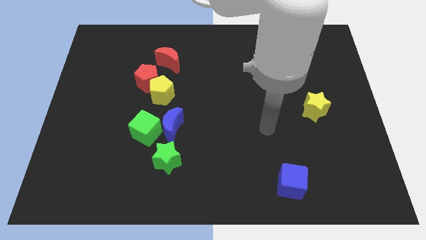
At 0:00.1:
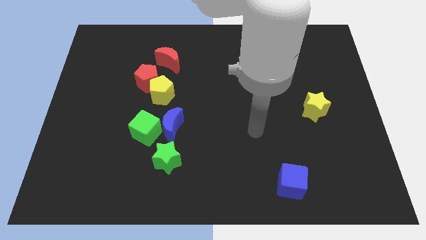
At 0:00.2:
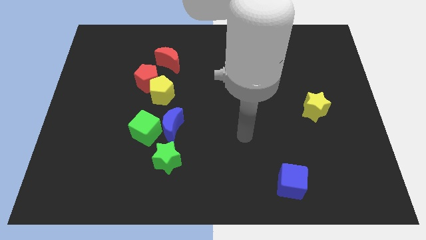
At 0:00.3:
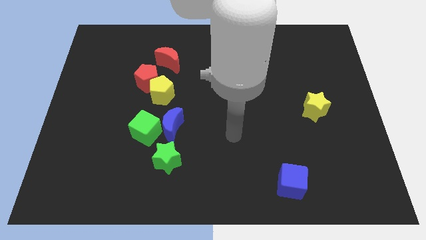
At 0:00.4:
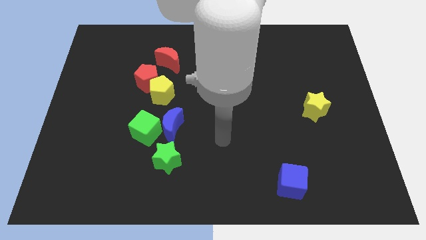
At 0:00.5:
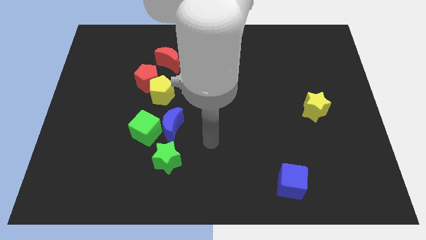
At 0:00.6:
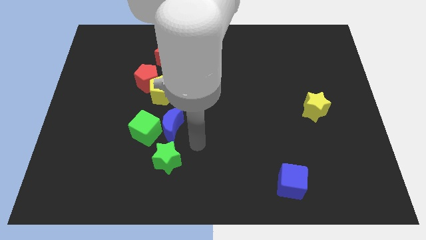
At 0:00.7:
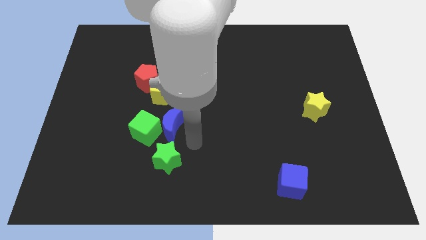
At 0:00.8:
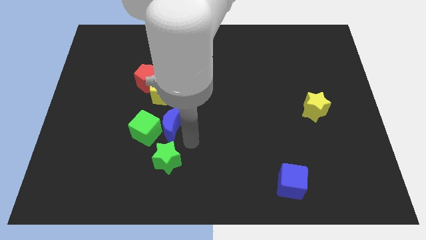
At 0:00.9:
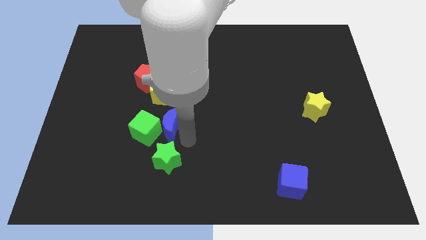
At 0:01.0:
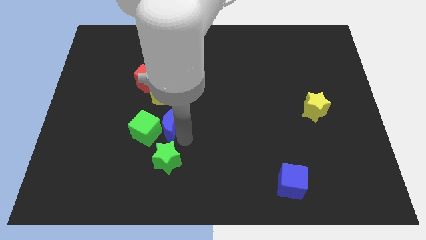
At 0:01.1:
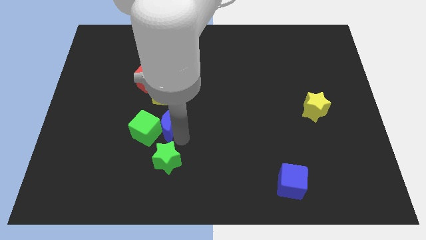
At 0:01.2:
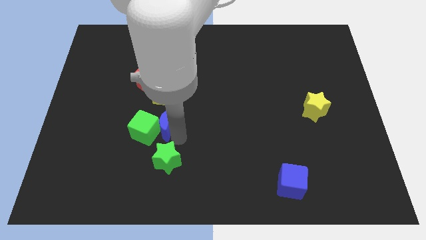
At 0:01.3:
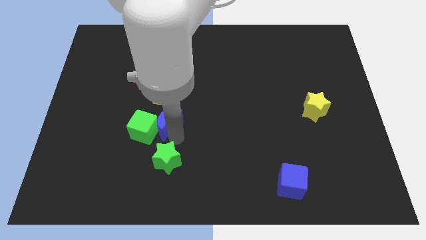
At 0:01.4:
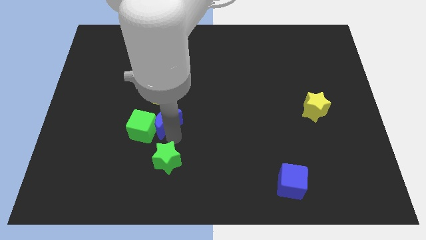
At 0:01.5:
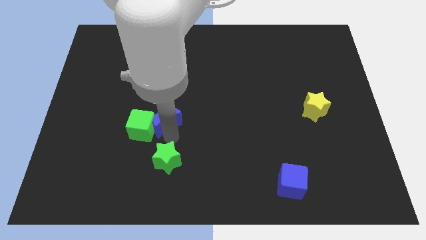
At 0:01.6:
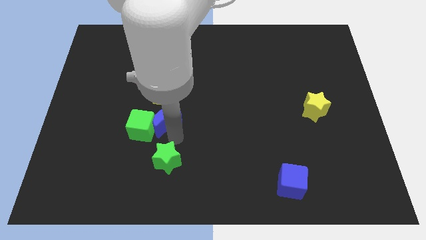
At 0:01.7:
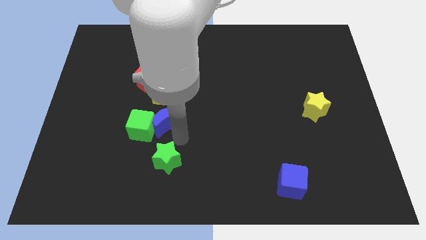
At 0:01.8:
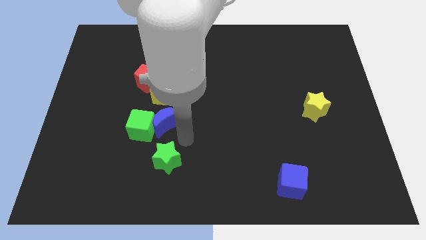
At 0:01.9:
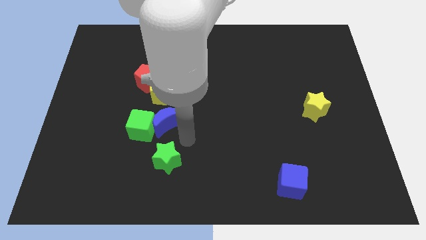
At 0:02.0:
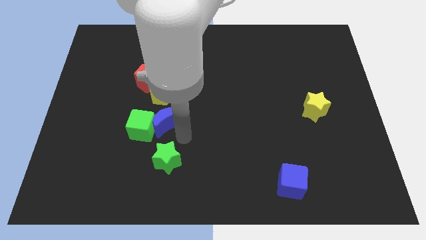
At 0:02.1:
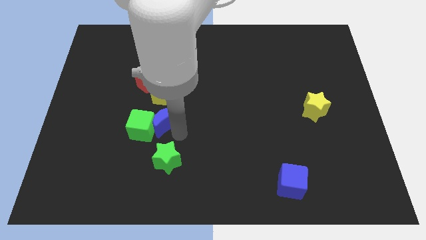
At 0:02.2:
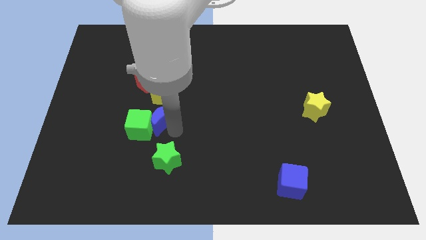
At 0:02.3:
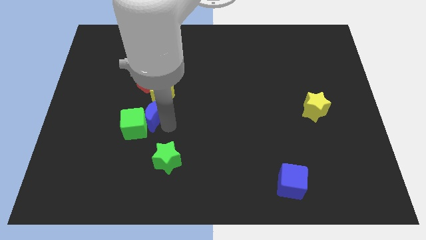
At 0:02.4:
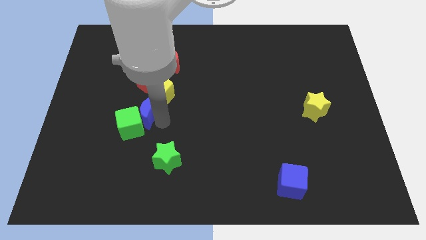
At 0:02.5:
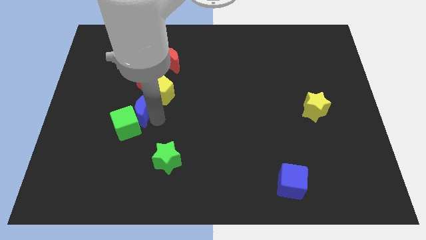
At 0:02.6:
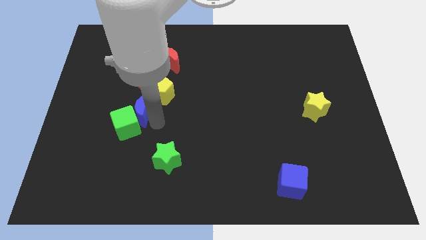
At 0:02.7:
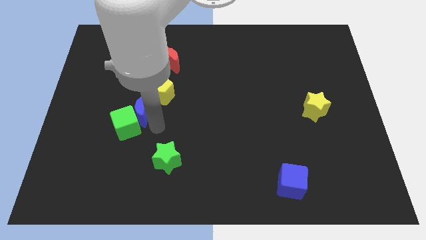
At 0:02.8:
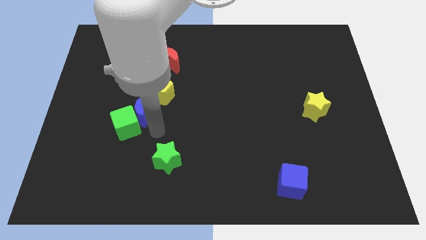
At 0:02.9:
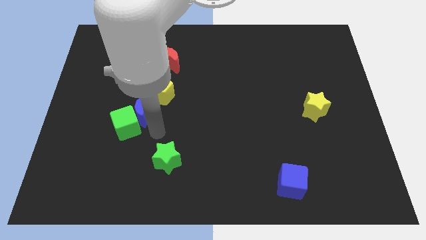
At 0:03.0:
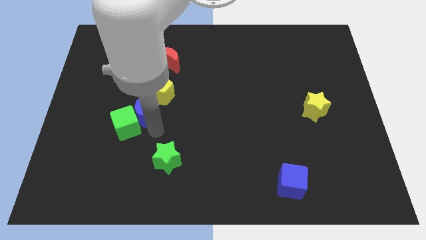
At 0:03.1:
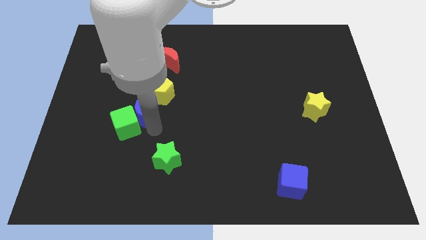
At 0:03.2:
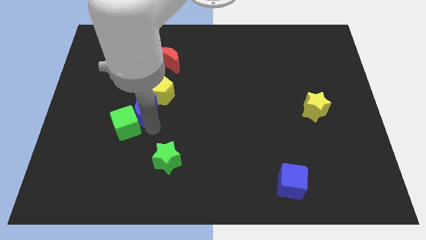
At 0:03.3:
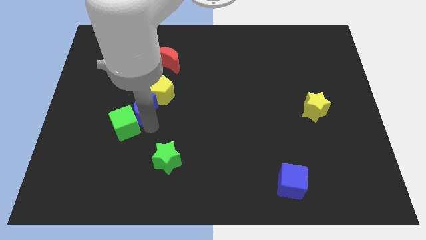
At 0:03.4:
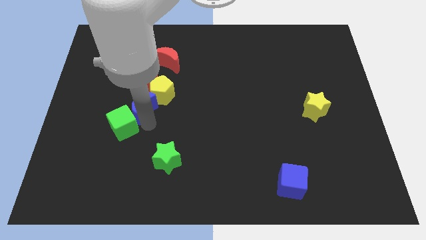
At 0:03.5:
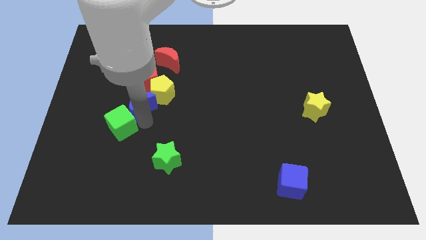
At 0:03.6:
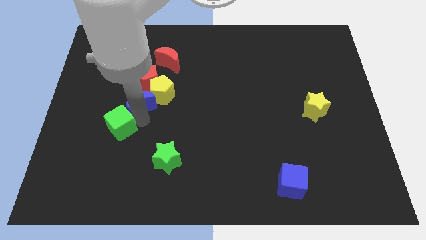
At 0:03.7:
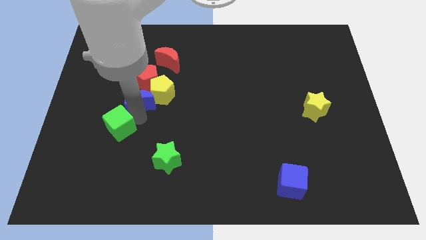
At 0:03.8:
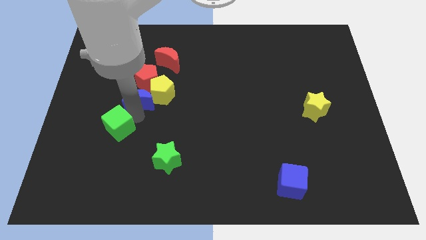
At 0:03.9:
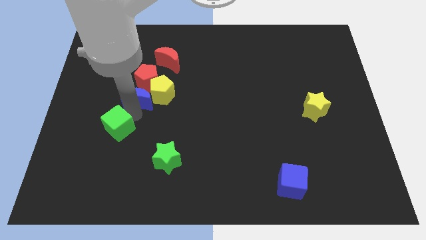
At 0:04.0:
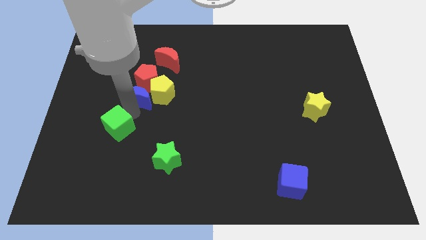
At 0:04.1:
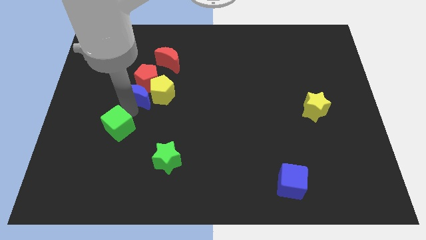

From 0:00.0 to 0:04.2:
push the blue moon towards the red pentagon

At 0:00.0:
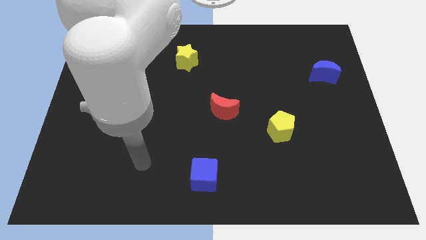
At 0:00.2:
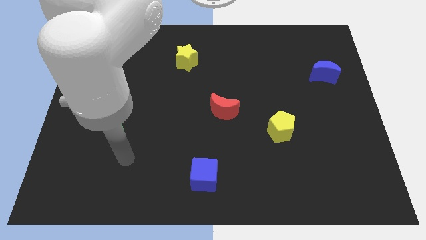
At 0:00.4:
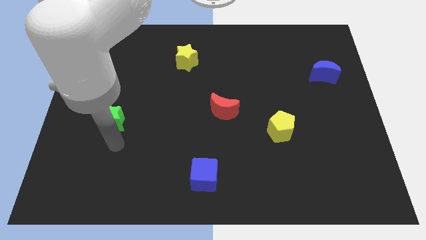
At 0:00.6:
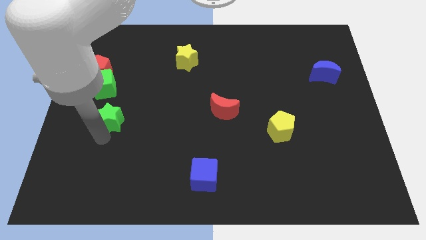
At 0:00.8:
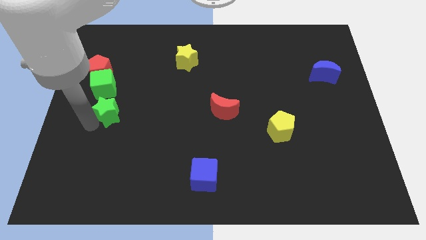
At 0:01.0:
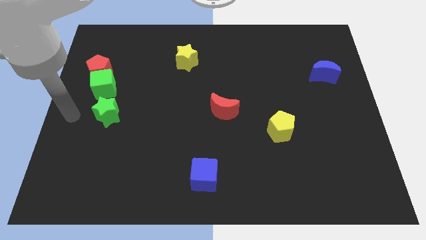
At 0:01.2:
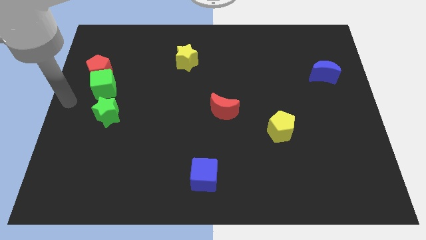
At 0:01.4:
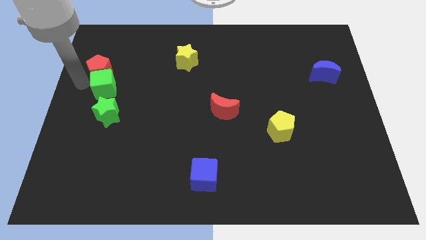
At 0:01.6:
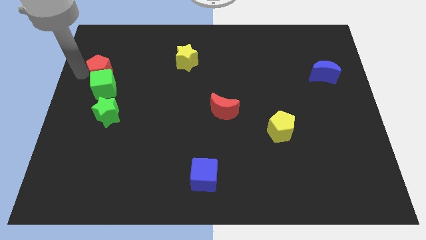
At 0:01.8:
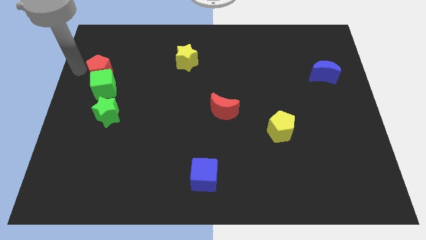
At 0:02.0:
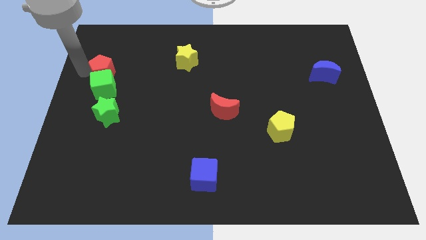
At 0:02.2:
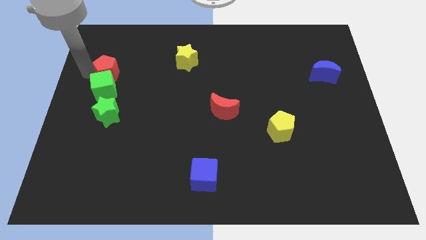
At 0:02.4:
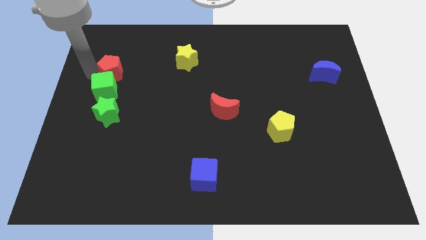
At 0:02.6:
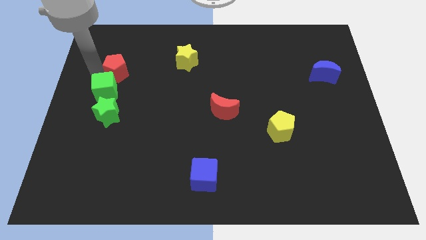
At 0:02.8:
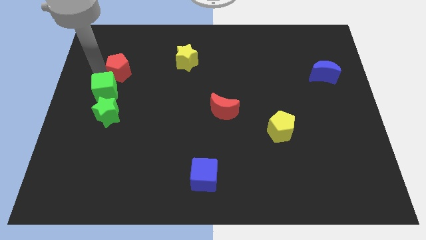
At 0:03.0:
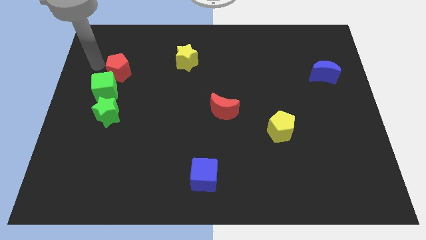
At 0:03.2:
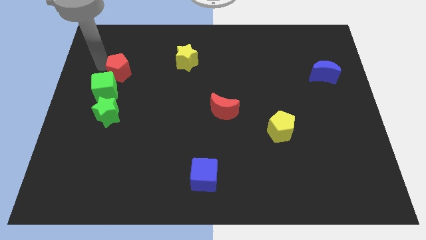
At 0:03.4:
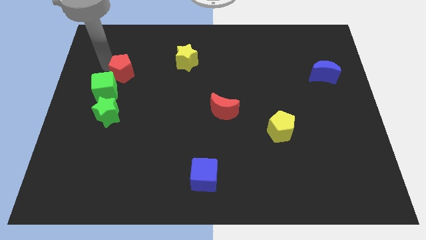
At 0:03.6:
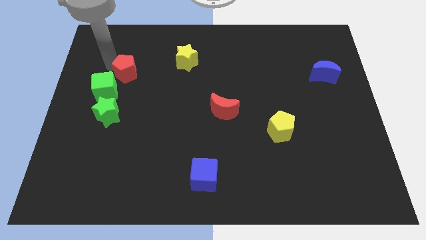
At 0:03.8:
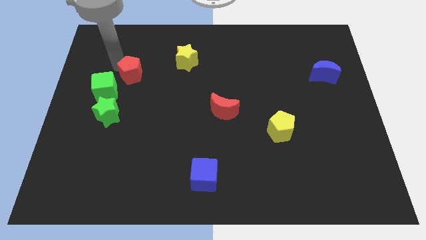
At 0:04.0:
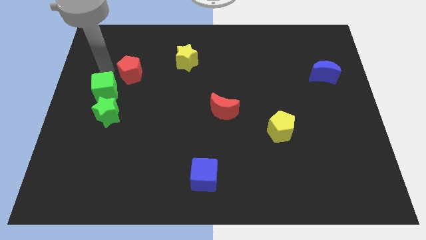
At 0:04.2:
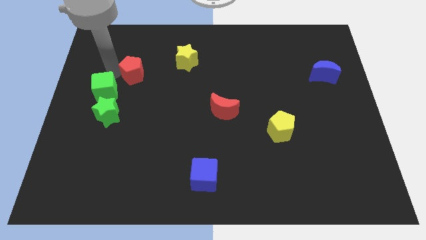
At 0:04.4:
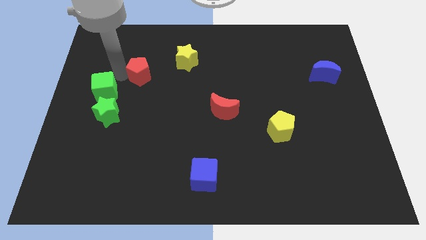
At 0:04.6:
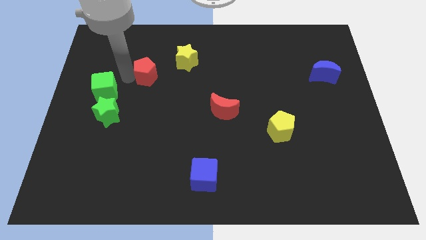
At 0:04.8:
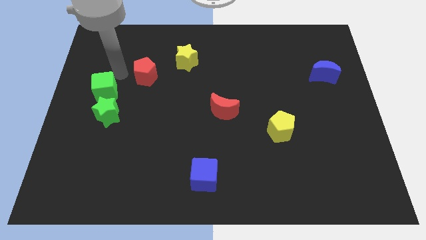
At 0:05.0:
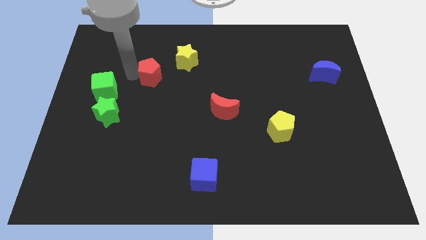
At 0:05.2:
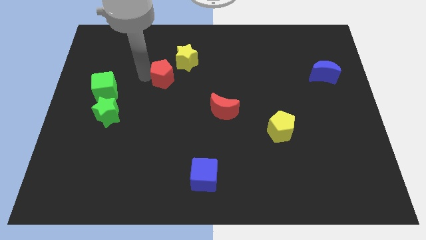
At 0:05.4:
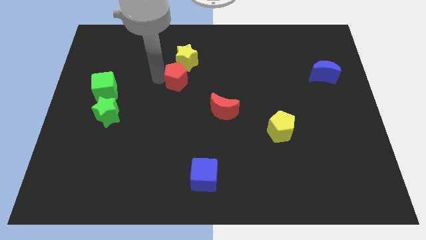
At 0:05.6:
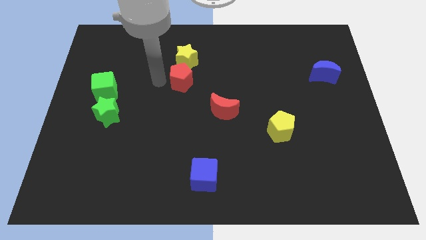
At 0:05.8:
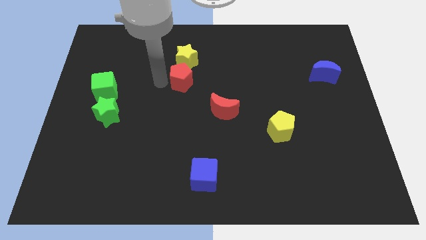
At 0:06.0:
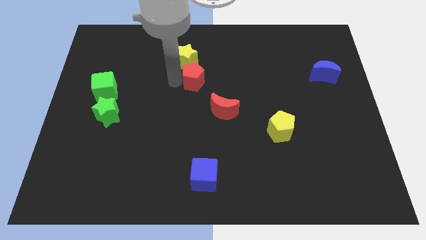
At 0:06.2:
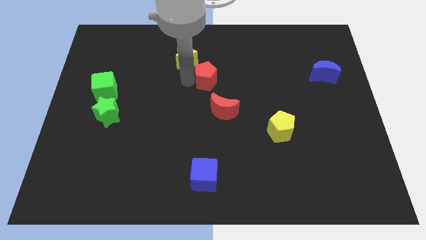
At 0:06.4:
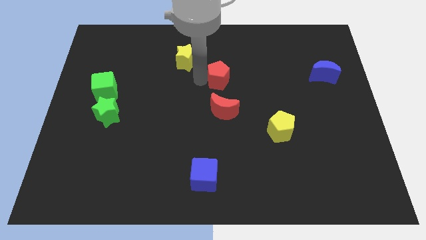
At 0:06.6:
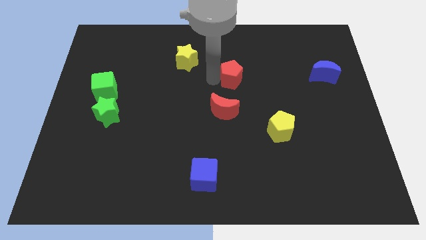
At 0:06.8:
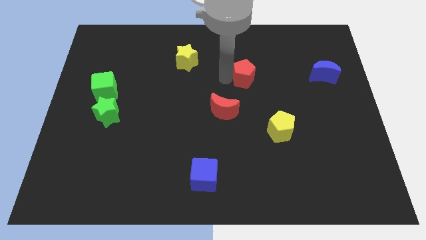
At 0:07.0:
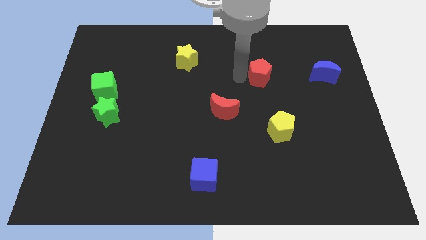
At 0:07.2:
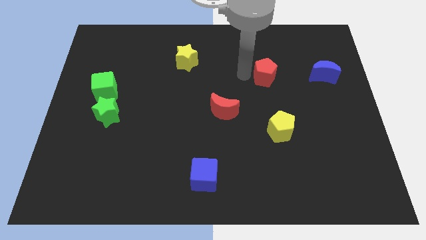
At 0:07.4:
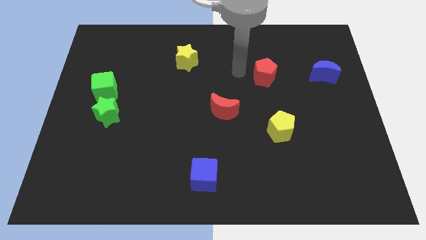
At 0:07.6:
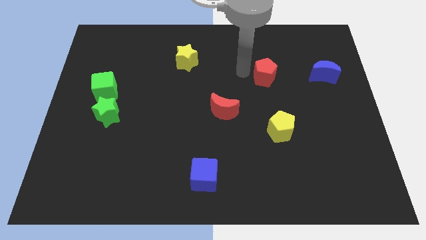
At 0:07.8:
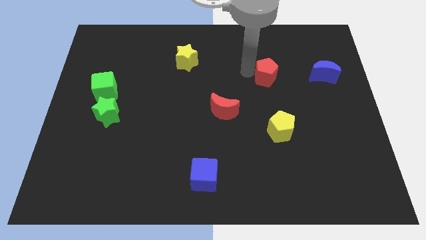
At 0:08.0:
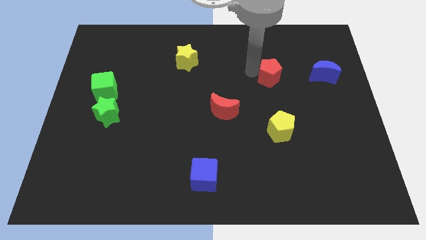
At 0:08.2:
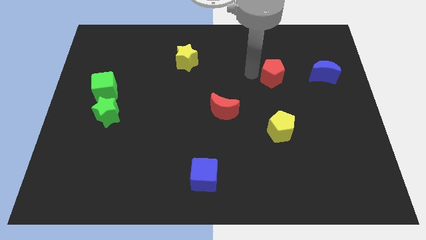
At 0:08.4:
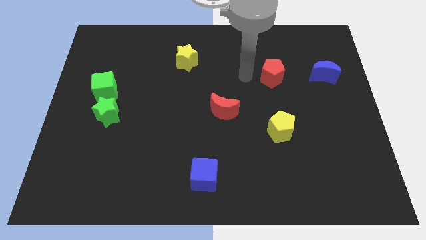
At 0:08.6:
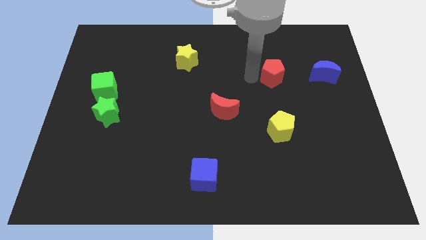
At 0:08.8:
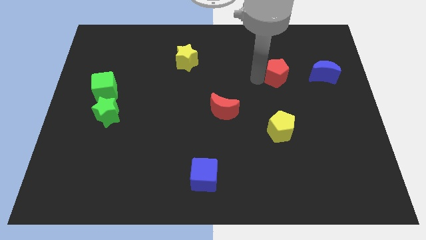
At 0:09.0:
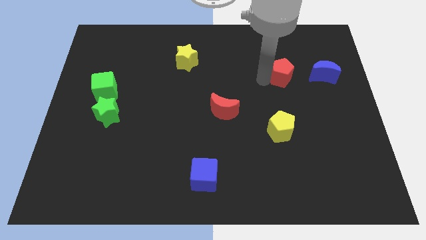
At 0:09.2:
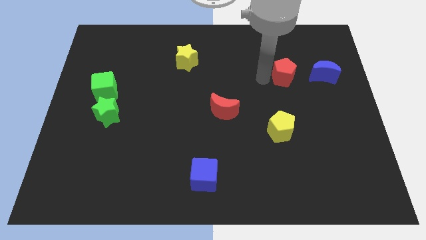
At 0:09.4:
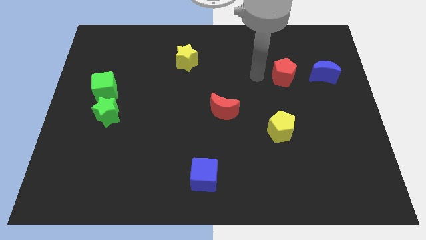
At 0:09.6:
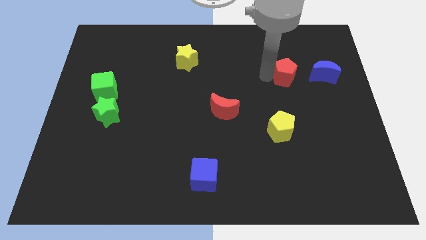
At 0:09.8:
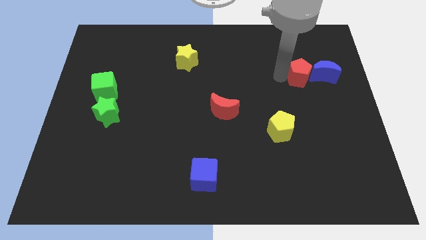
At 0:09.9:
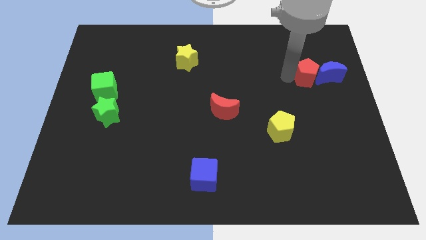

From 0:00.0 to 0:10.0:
push the red pentagon to the blue moon
